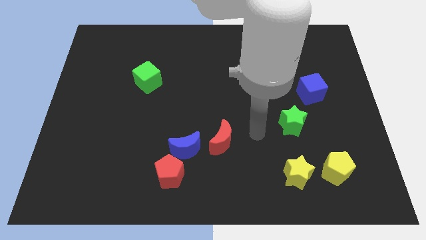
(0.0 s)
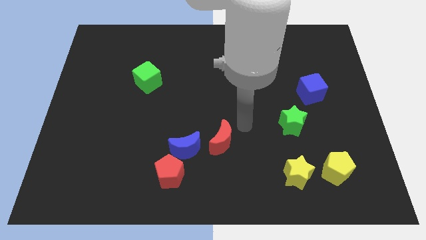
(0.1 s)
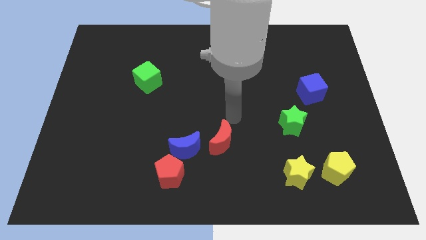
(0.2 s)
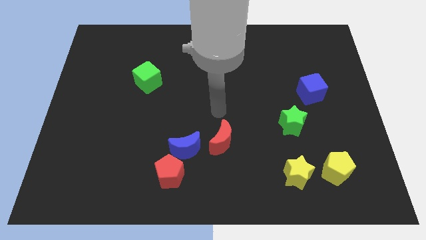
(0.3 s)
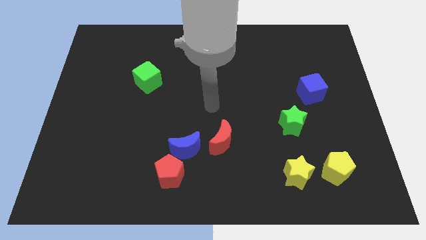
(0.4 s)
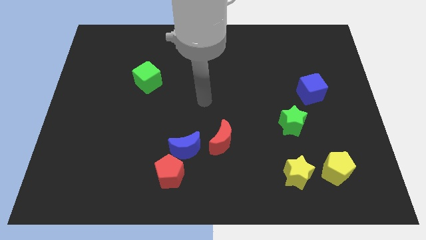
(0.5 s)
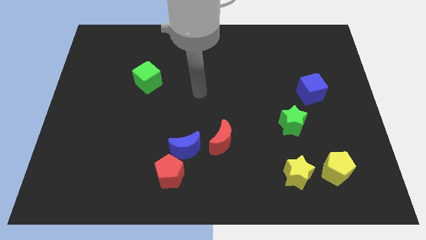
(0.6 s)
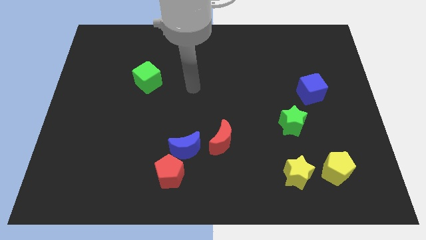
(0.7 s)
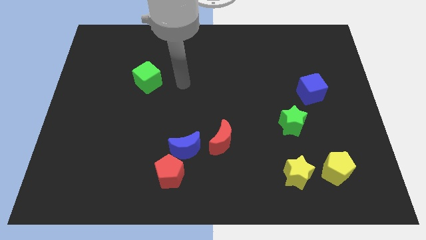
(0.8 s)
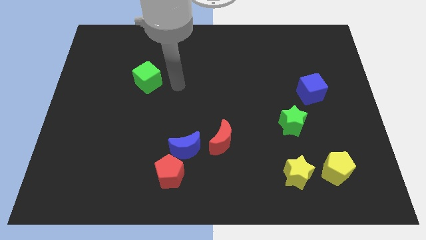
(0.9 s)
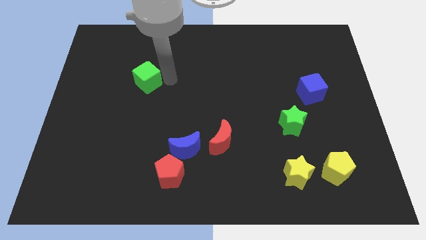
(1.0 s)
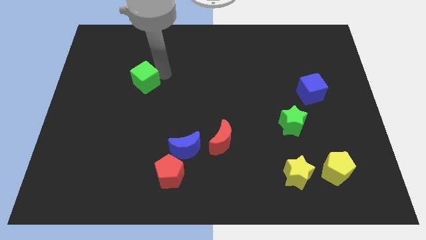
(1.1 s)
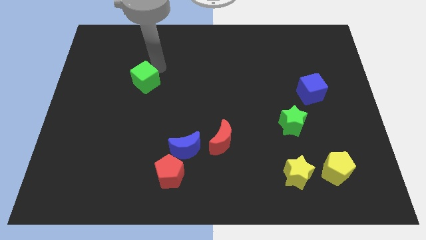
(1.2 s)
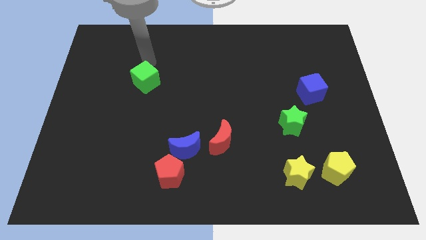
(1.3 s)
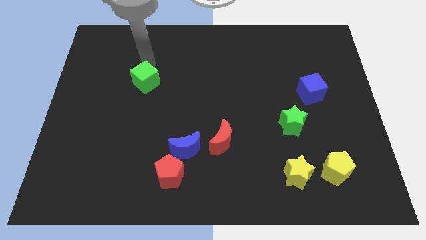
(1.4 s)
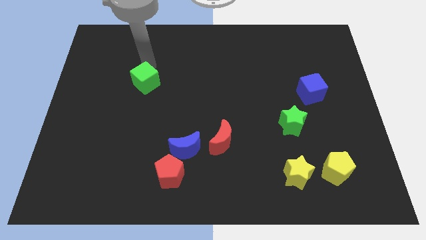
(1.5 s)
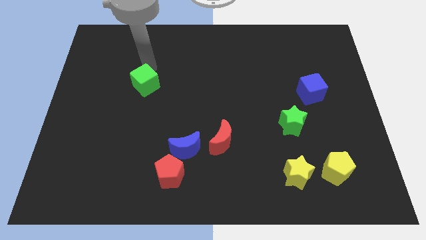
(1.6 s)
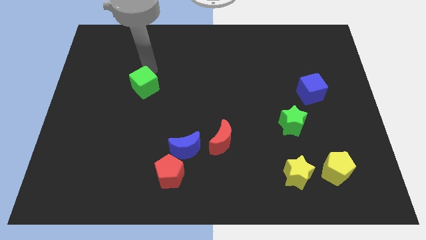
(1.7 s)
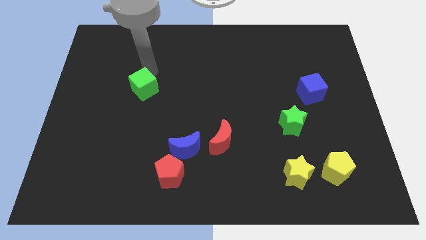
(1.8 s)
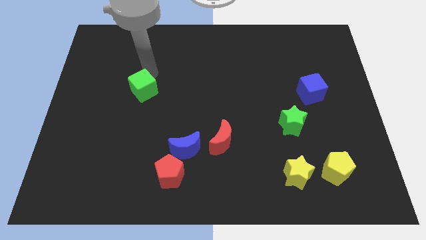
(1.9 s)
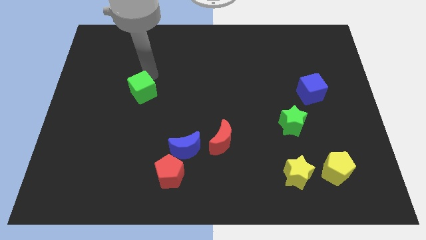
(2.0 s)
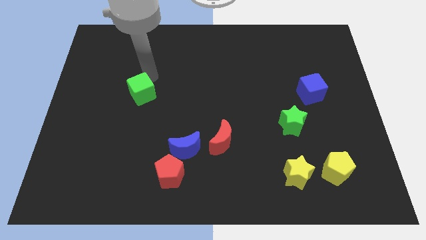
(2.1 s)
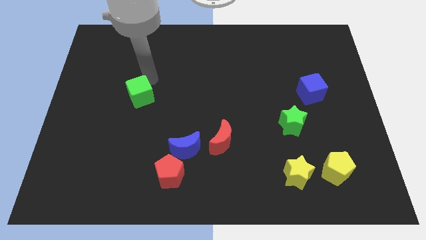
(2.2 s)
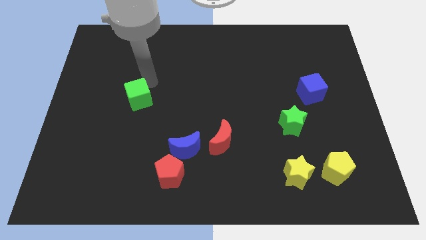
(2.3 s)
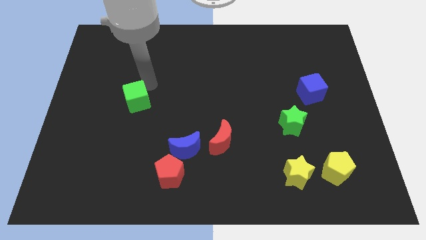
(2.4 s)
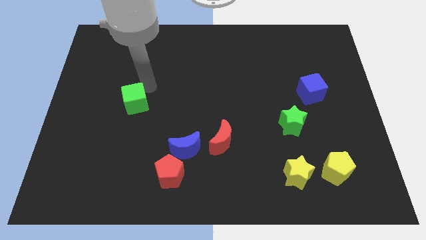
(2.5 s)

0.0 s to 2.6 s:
move the green cube slightly down

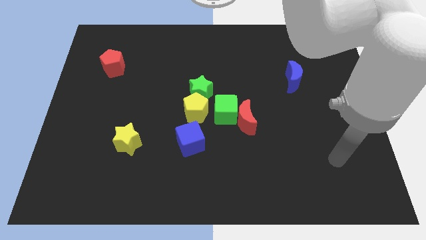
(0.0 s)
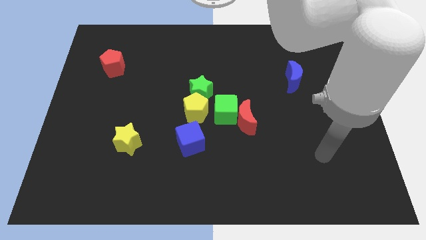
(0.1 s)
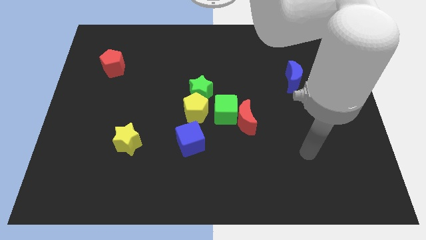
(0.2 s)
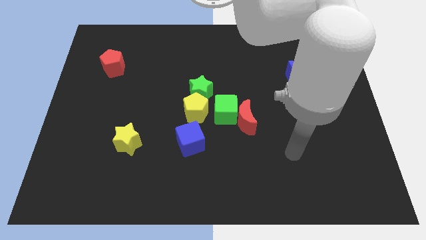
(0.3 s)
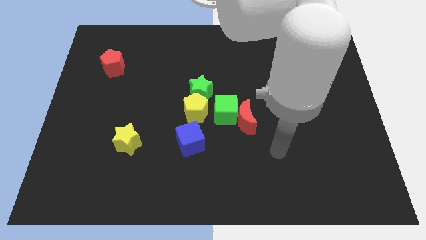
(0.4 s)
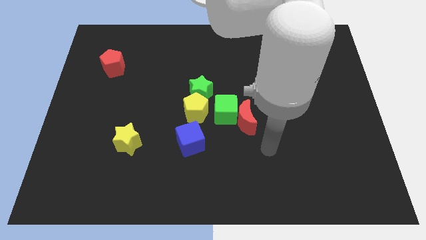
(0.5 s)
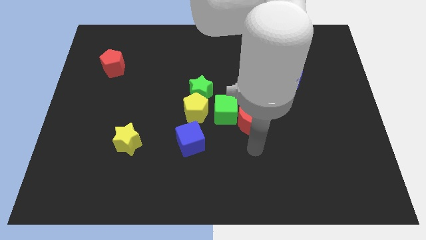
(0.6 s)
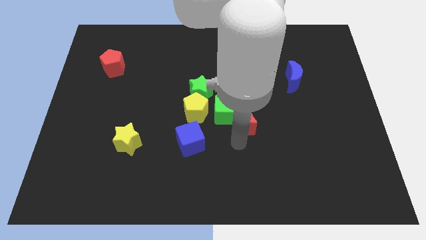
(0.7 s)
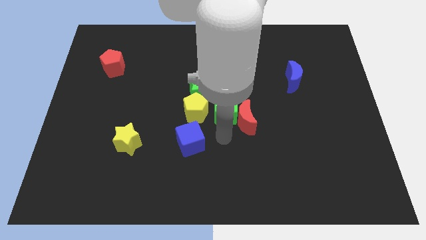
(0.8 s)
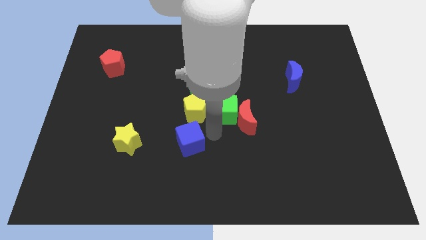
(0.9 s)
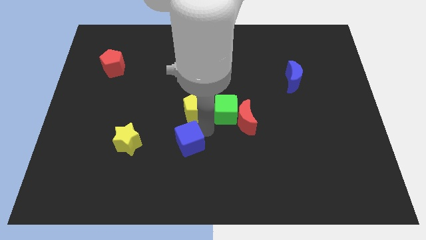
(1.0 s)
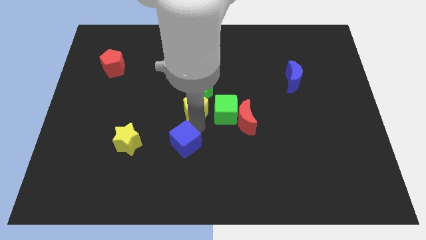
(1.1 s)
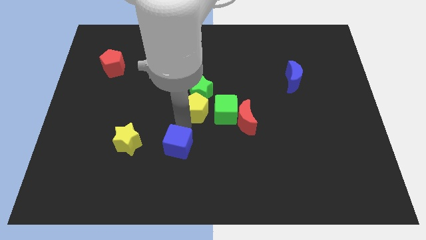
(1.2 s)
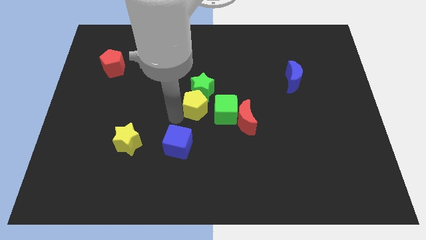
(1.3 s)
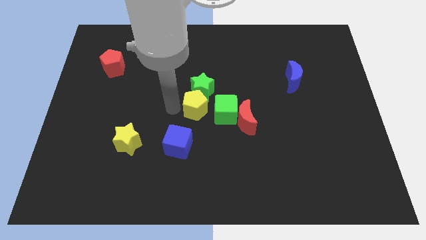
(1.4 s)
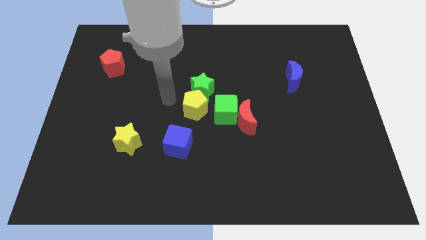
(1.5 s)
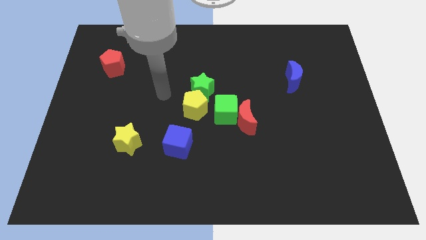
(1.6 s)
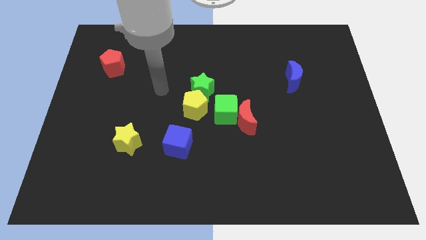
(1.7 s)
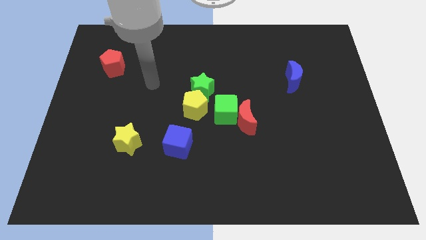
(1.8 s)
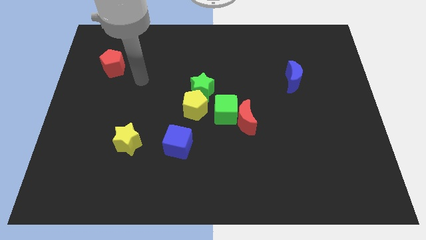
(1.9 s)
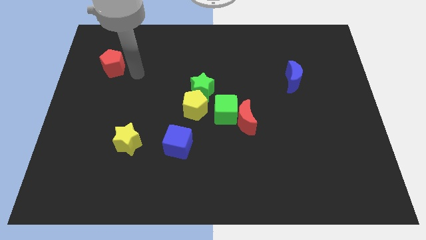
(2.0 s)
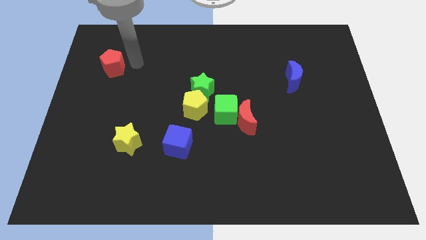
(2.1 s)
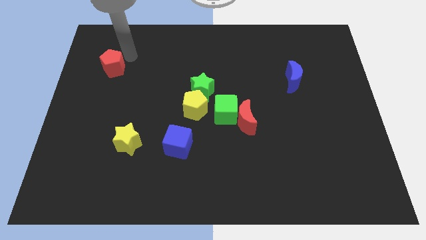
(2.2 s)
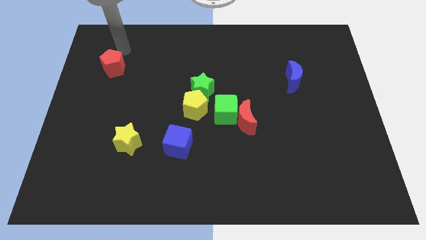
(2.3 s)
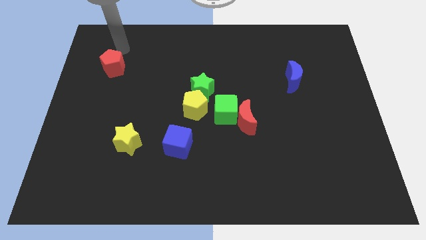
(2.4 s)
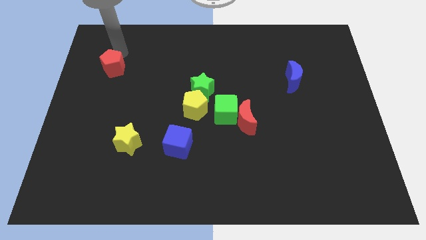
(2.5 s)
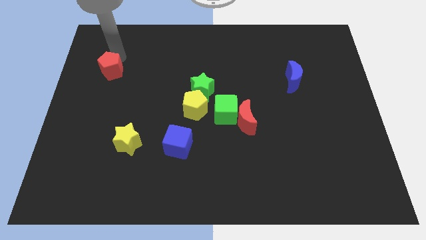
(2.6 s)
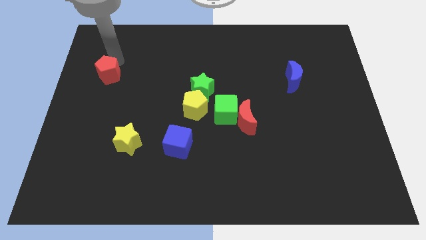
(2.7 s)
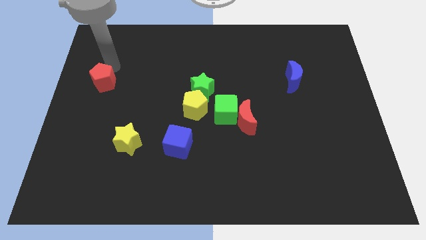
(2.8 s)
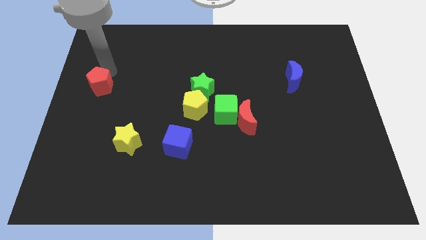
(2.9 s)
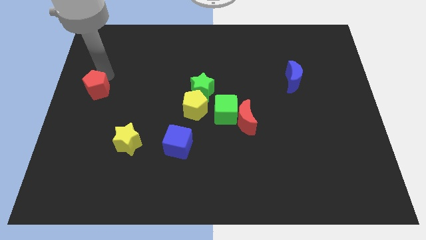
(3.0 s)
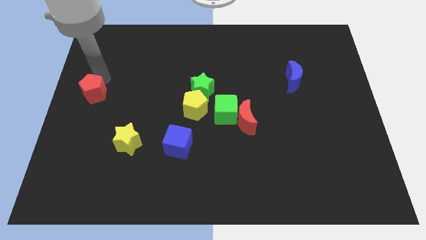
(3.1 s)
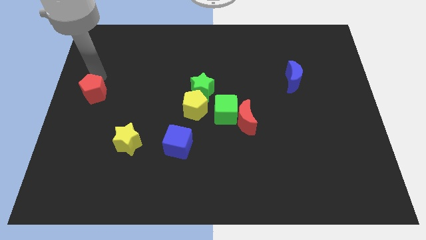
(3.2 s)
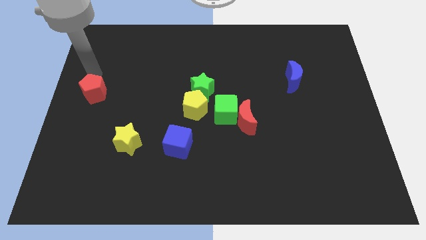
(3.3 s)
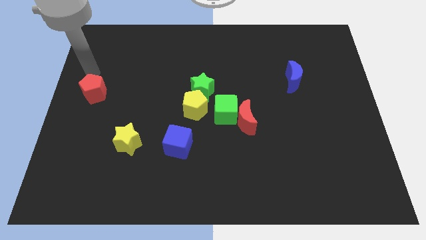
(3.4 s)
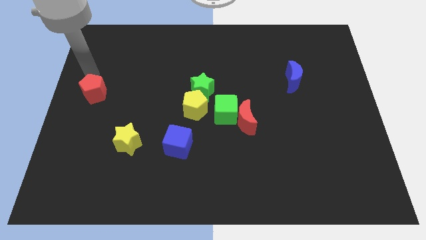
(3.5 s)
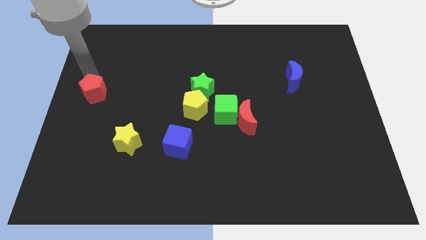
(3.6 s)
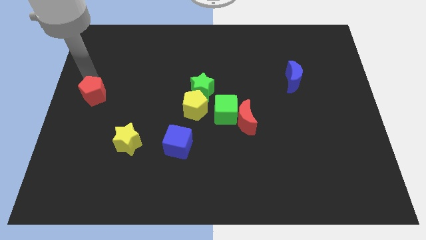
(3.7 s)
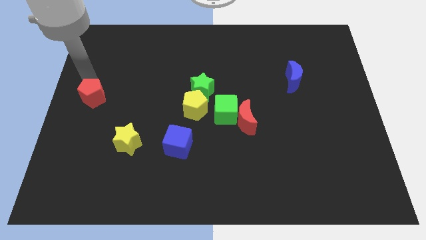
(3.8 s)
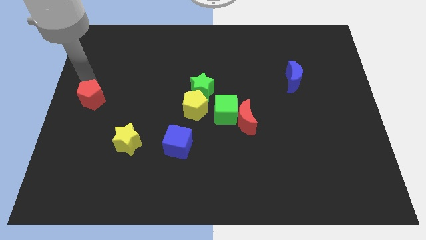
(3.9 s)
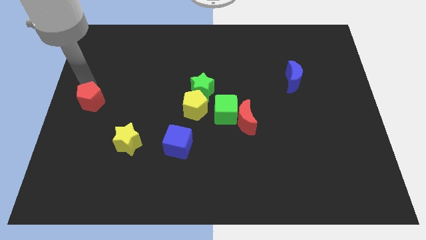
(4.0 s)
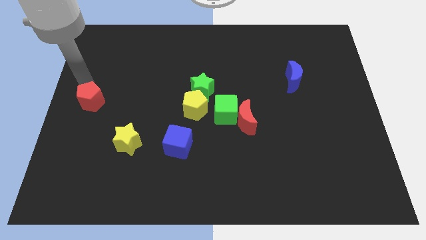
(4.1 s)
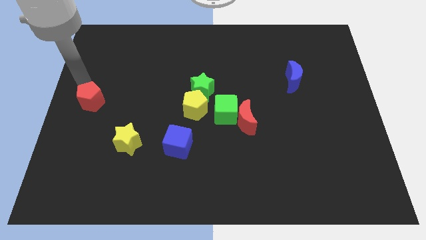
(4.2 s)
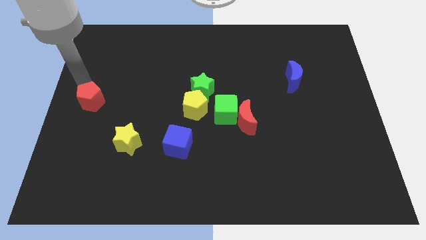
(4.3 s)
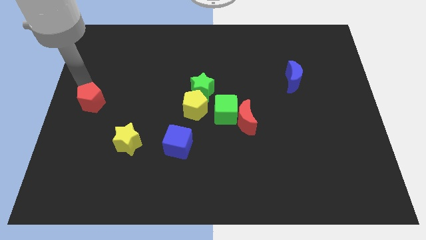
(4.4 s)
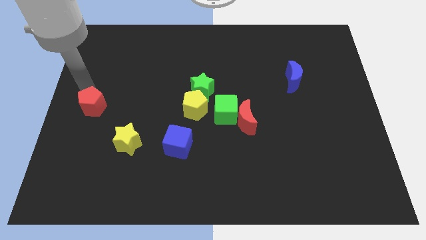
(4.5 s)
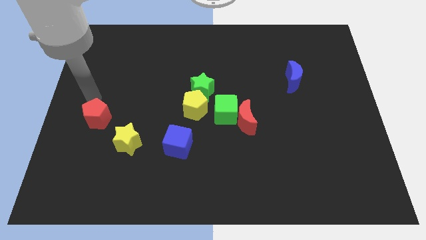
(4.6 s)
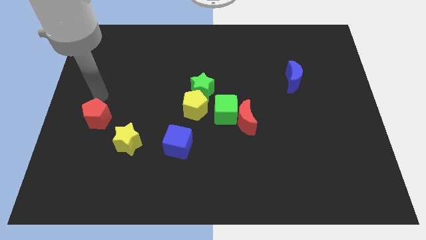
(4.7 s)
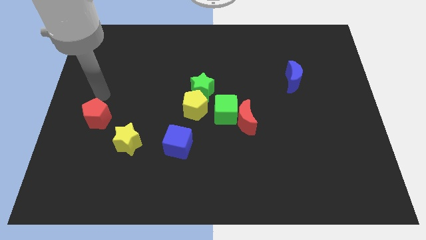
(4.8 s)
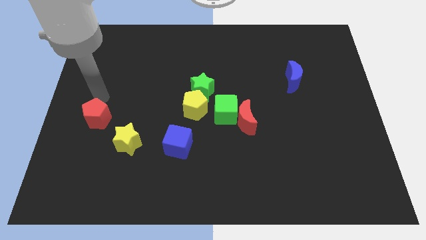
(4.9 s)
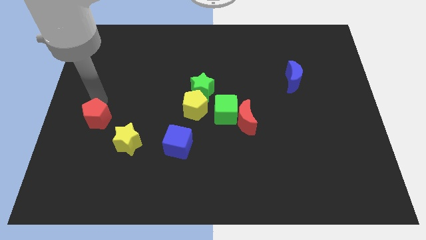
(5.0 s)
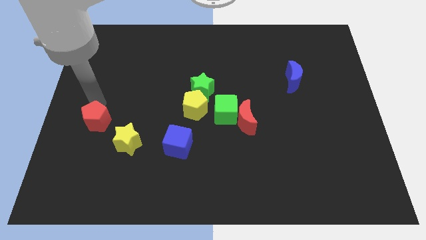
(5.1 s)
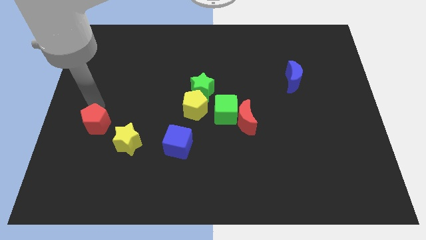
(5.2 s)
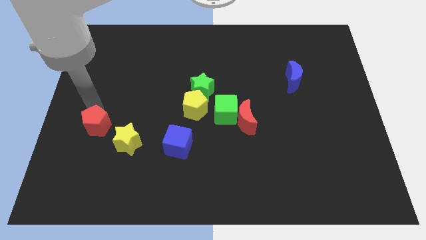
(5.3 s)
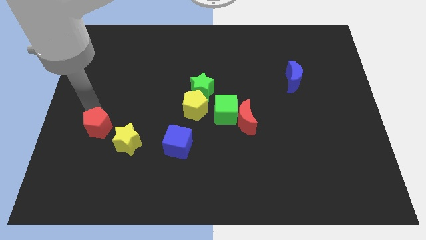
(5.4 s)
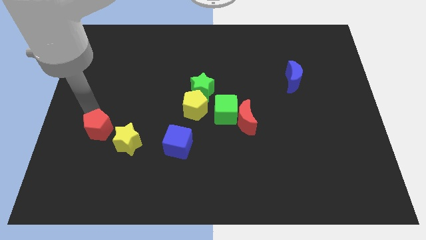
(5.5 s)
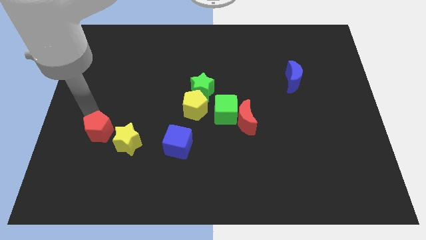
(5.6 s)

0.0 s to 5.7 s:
move the red pentagon down
